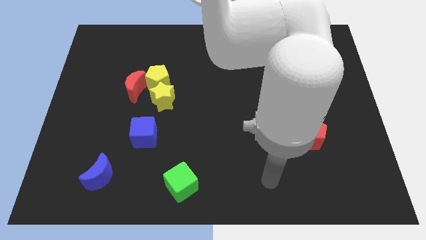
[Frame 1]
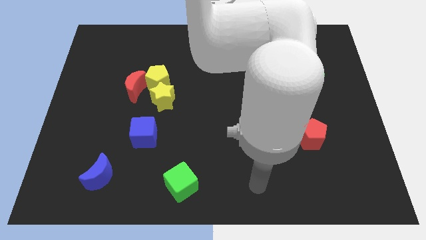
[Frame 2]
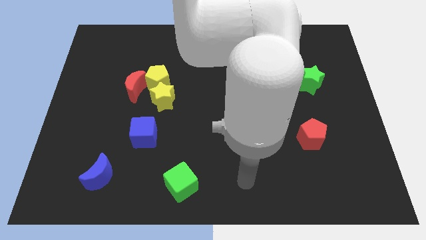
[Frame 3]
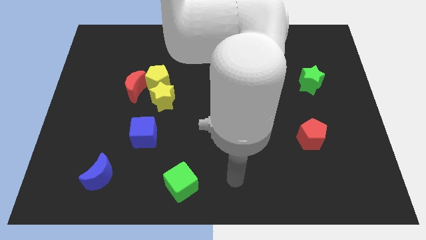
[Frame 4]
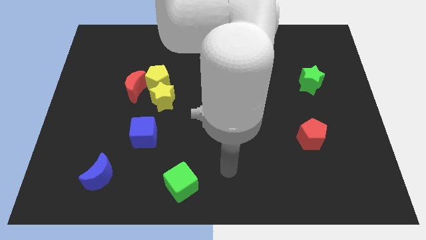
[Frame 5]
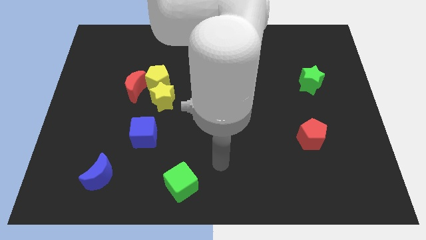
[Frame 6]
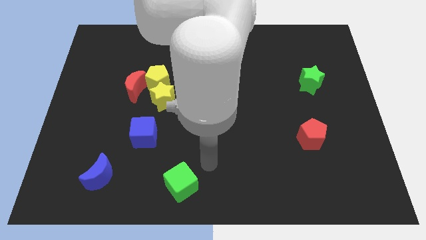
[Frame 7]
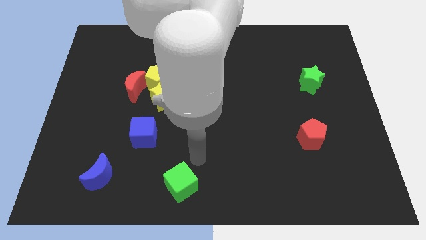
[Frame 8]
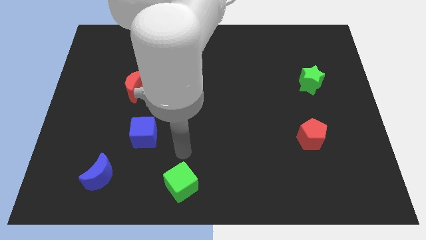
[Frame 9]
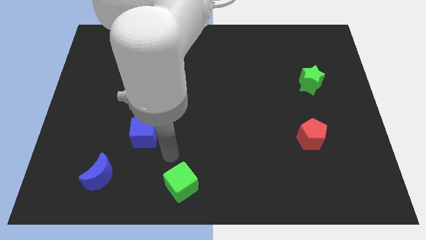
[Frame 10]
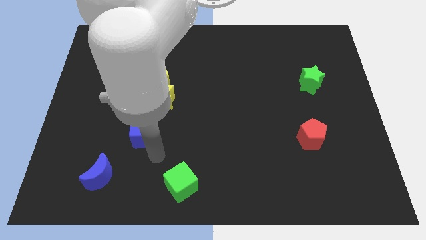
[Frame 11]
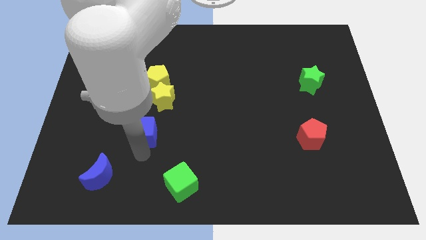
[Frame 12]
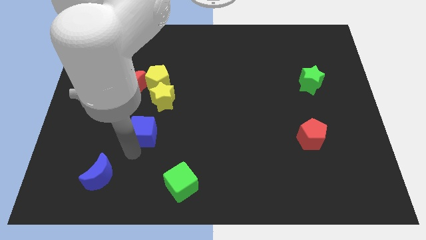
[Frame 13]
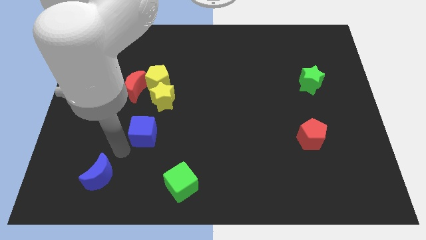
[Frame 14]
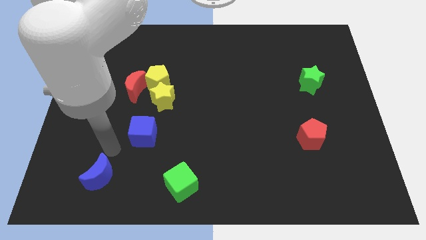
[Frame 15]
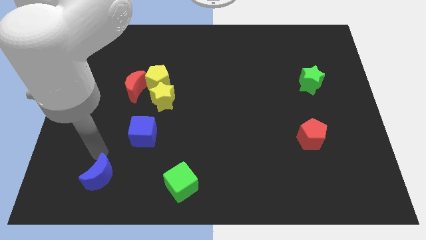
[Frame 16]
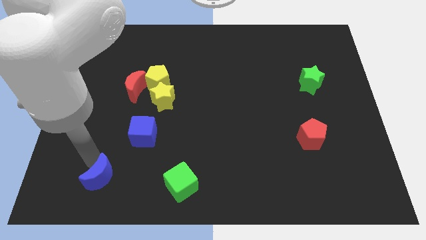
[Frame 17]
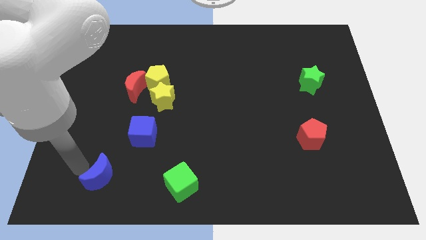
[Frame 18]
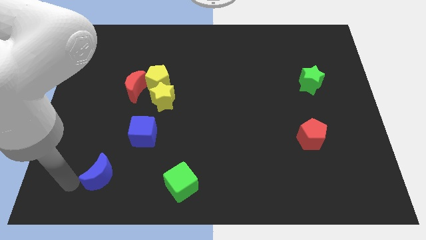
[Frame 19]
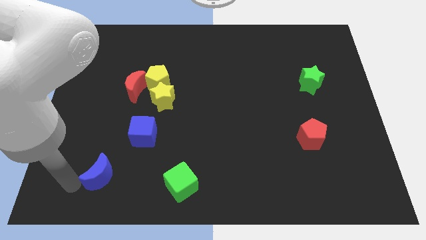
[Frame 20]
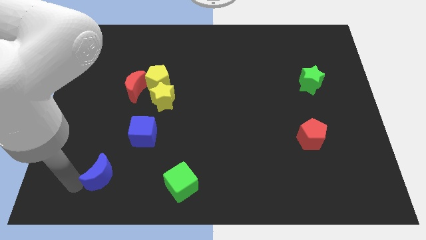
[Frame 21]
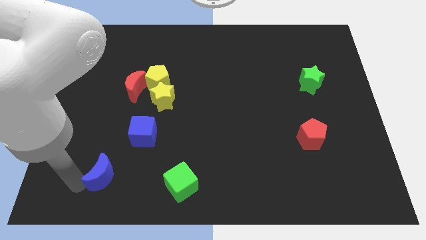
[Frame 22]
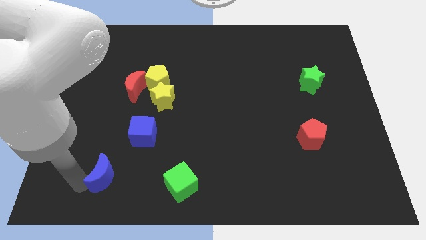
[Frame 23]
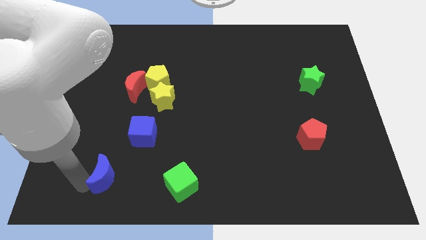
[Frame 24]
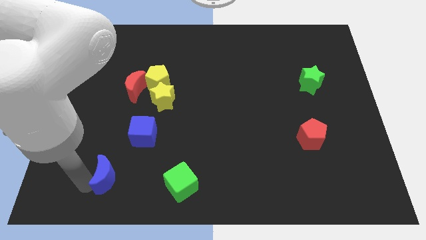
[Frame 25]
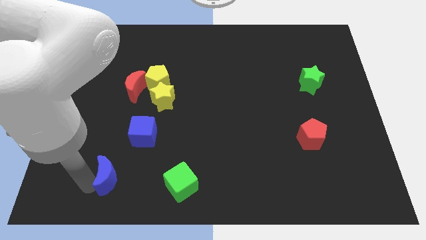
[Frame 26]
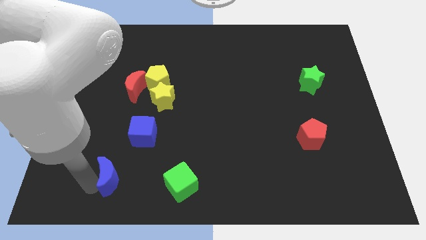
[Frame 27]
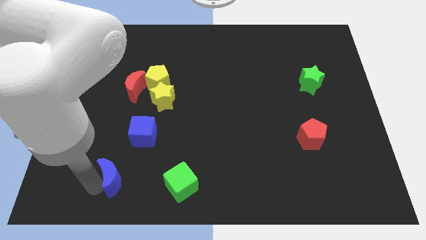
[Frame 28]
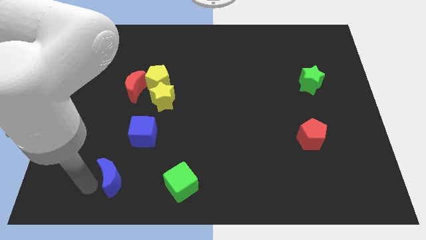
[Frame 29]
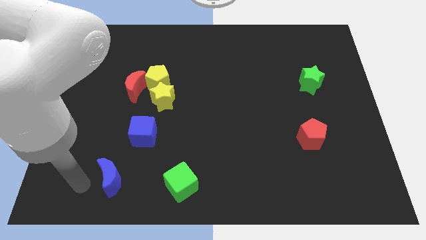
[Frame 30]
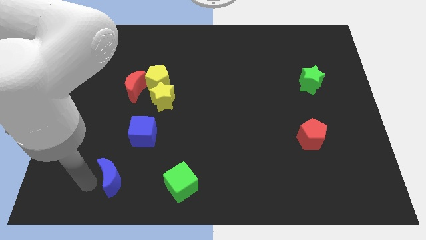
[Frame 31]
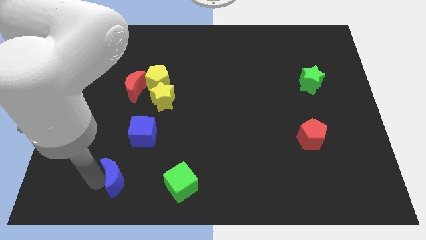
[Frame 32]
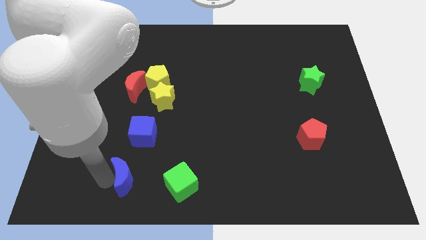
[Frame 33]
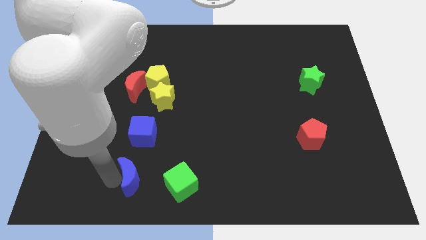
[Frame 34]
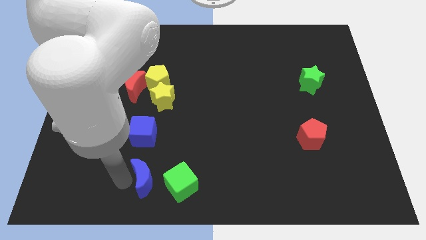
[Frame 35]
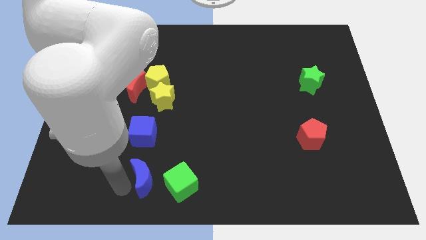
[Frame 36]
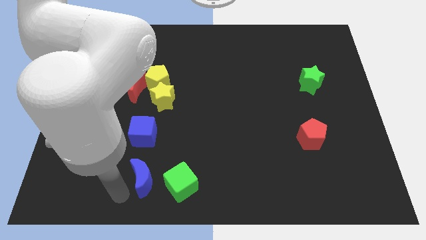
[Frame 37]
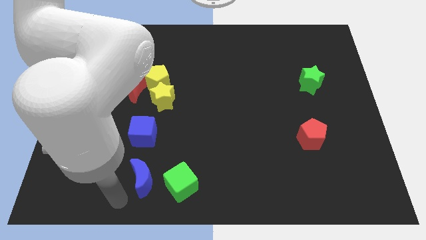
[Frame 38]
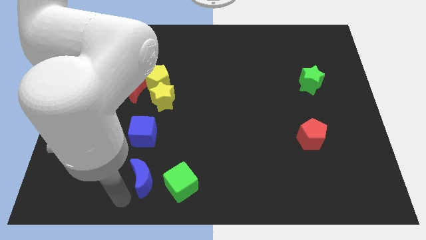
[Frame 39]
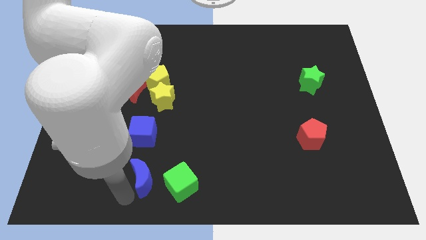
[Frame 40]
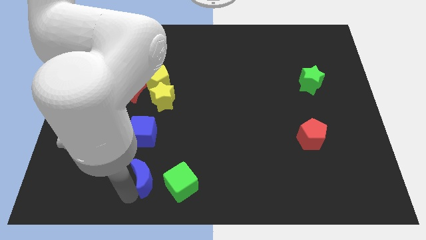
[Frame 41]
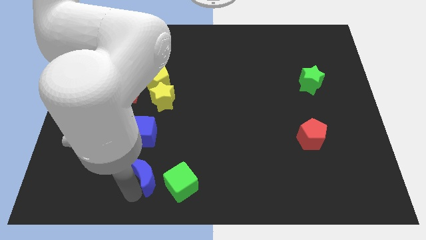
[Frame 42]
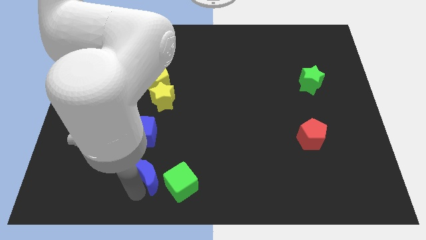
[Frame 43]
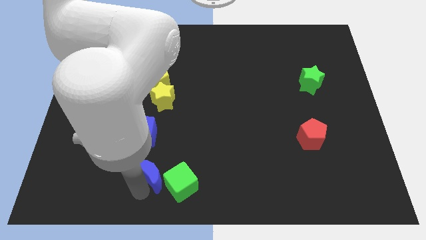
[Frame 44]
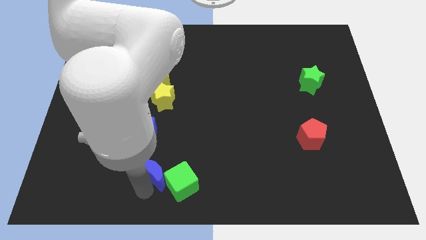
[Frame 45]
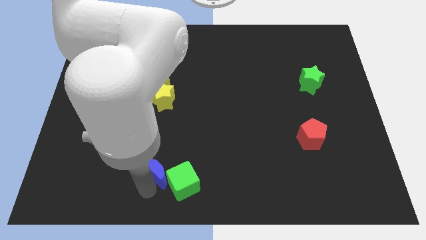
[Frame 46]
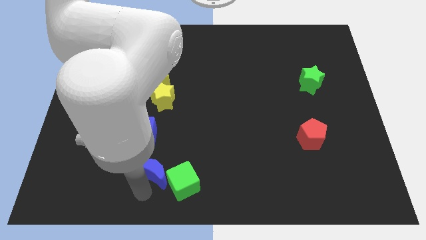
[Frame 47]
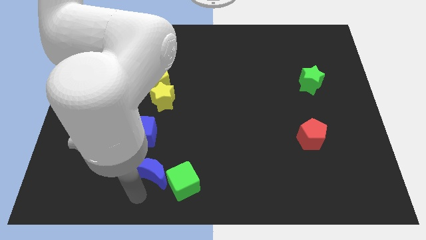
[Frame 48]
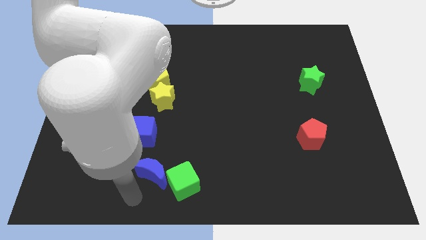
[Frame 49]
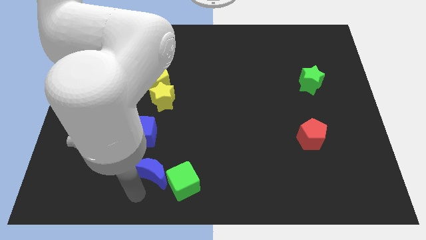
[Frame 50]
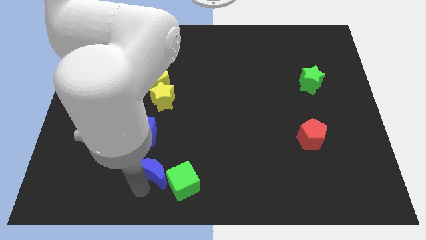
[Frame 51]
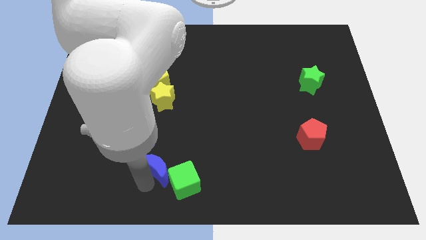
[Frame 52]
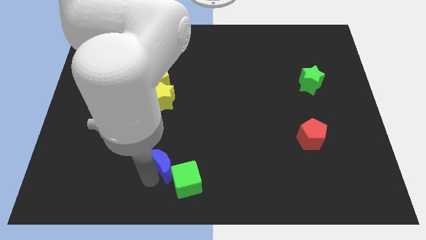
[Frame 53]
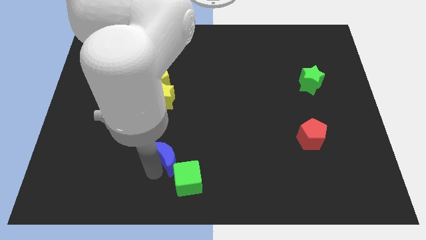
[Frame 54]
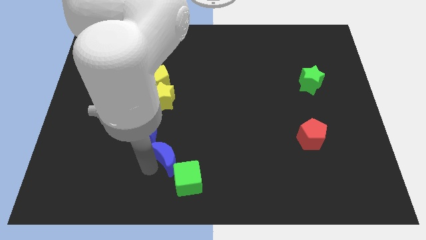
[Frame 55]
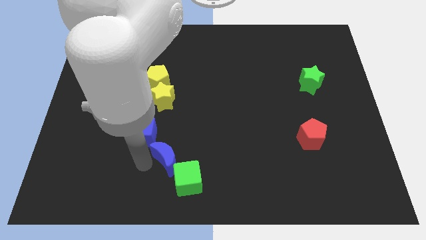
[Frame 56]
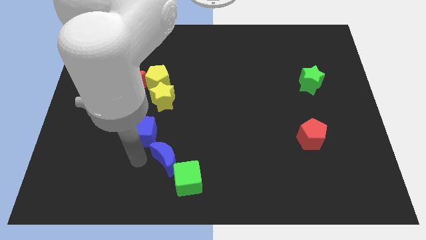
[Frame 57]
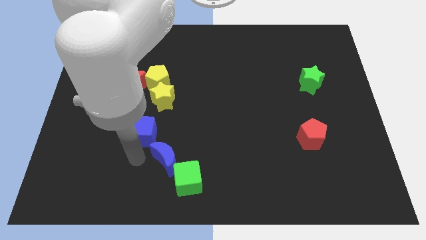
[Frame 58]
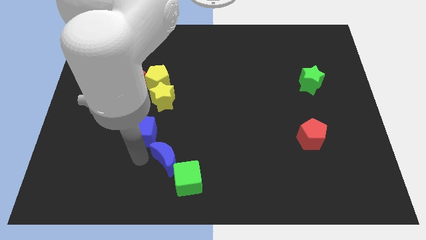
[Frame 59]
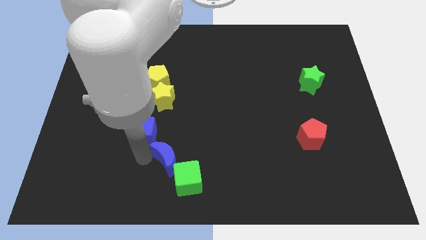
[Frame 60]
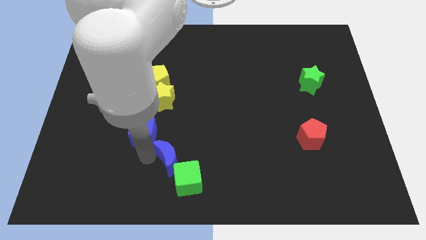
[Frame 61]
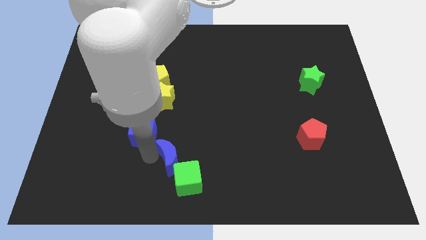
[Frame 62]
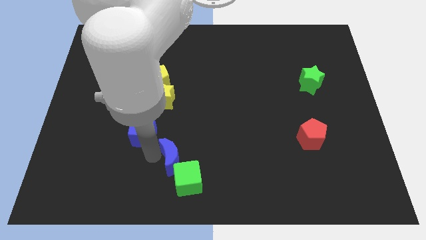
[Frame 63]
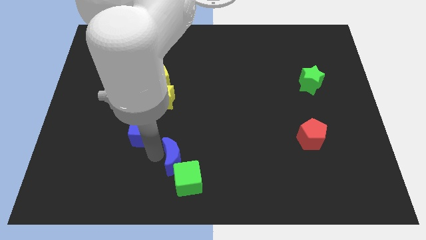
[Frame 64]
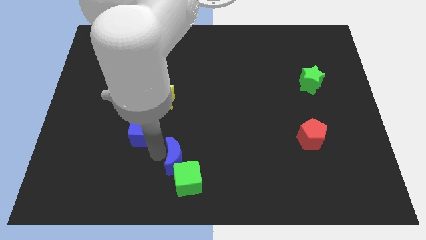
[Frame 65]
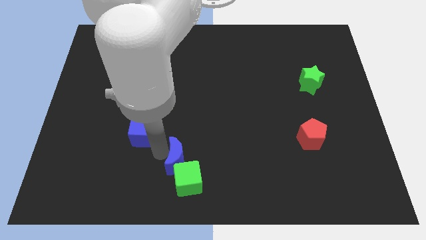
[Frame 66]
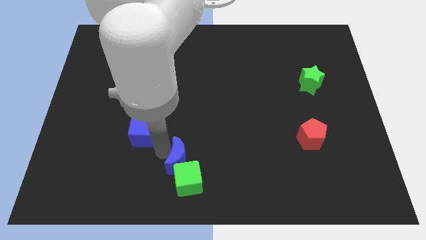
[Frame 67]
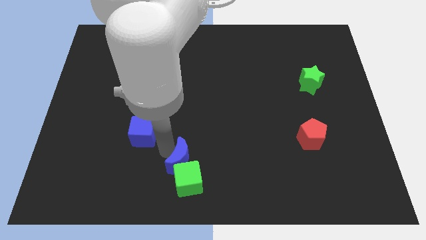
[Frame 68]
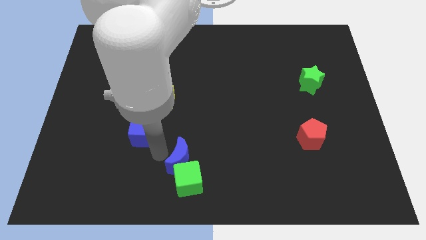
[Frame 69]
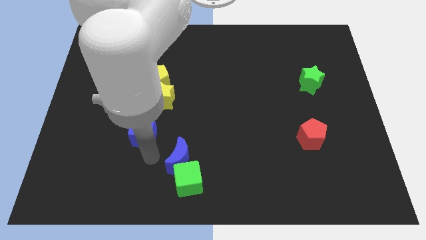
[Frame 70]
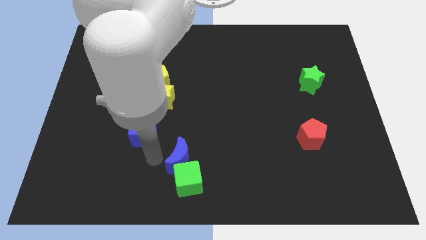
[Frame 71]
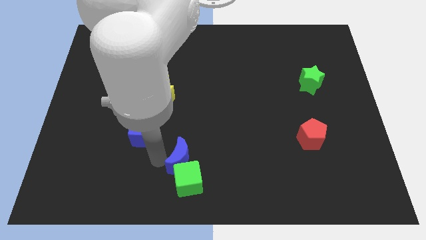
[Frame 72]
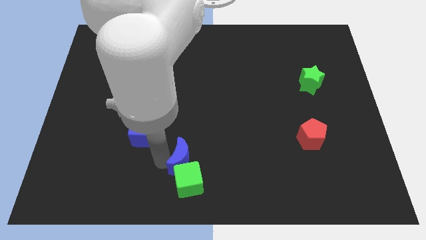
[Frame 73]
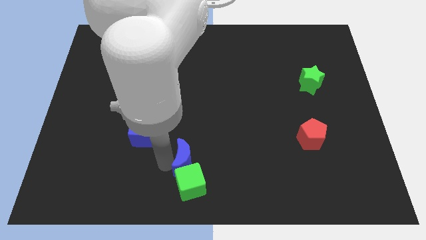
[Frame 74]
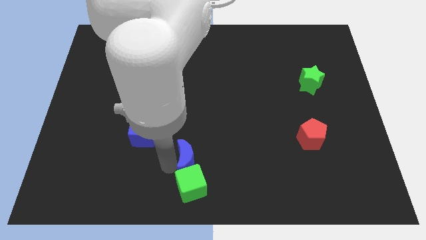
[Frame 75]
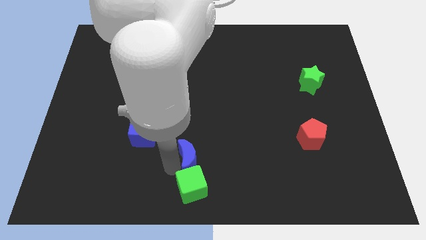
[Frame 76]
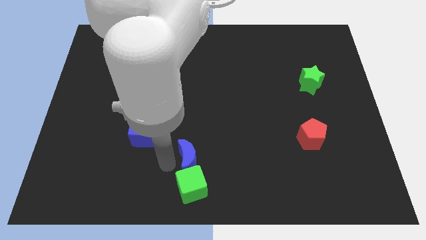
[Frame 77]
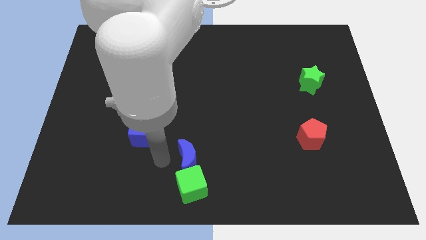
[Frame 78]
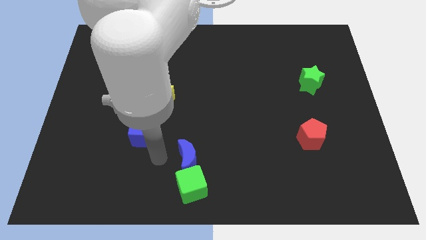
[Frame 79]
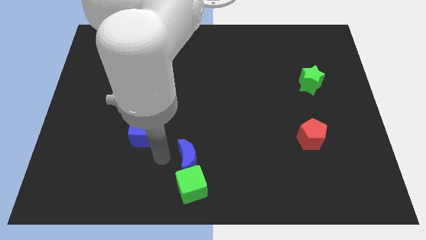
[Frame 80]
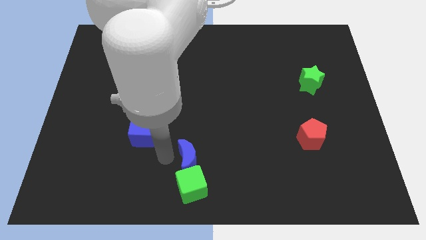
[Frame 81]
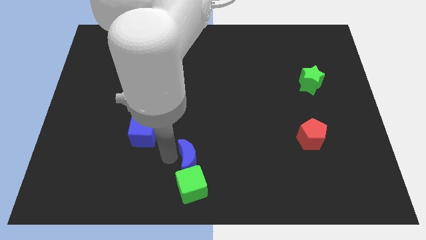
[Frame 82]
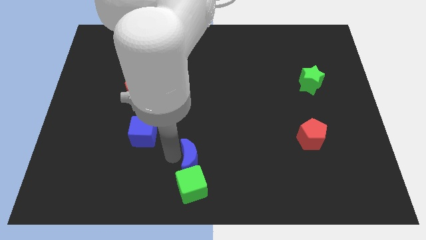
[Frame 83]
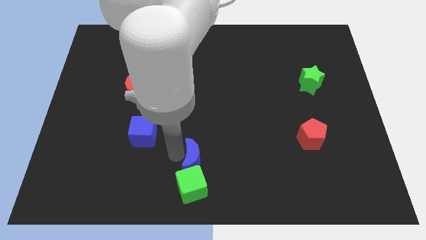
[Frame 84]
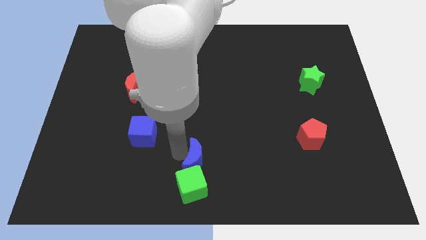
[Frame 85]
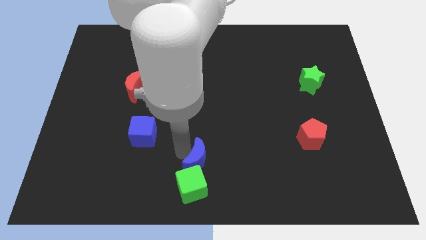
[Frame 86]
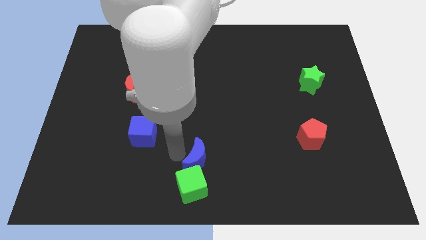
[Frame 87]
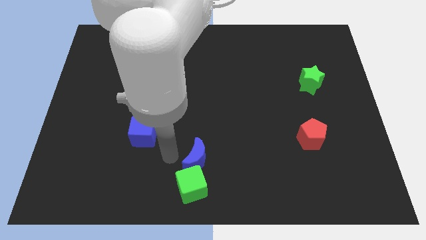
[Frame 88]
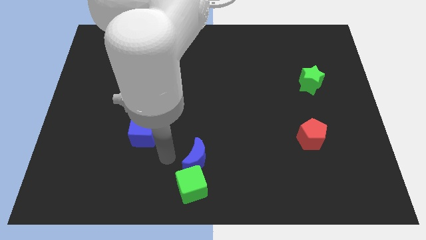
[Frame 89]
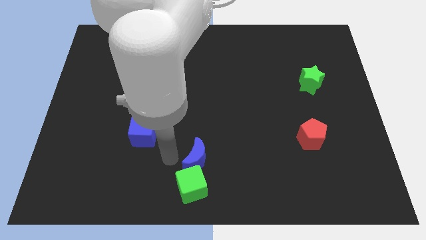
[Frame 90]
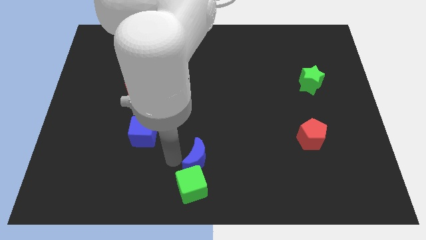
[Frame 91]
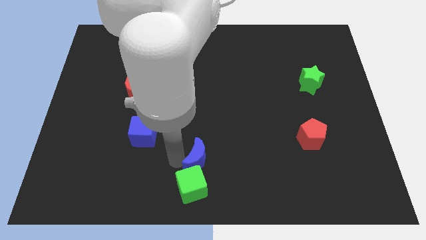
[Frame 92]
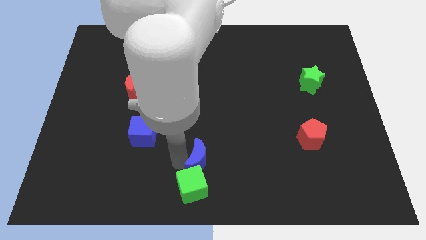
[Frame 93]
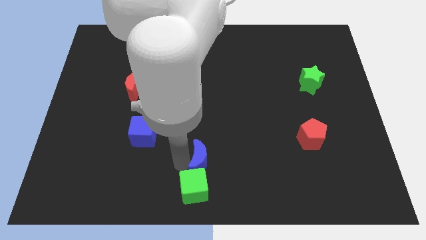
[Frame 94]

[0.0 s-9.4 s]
slide the blue moon right
